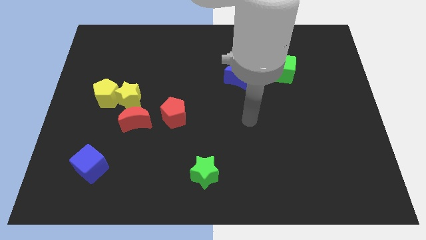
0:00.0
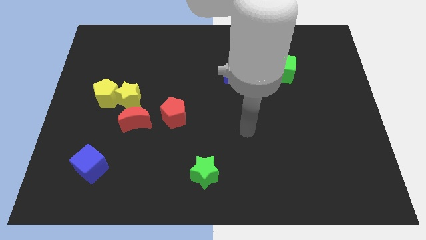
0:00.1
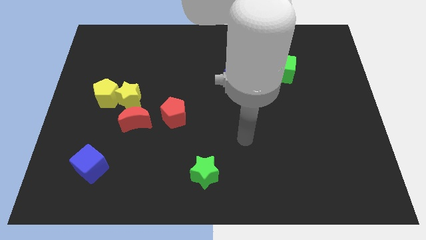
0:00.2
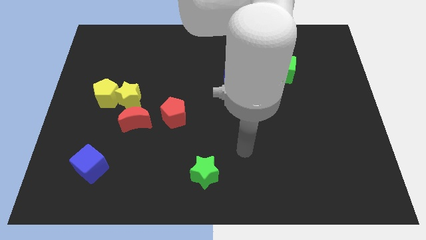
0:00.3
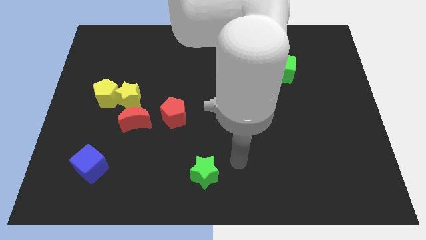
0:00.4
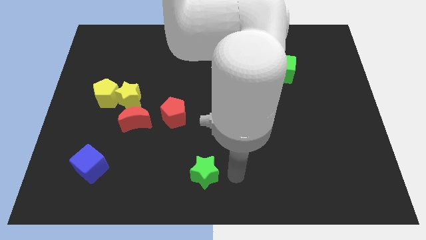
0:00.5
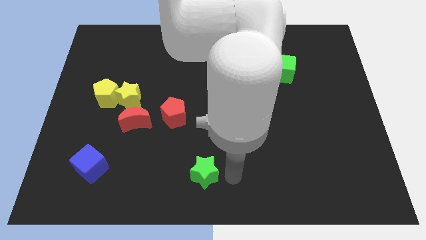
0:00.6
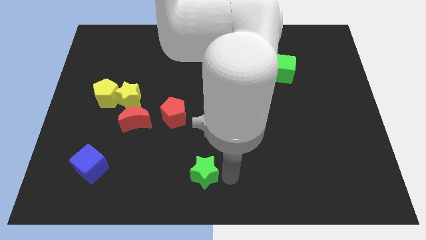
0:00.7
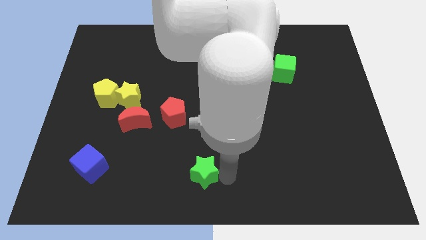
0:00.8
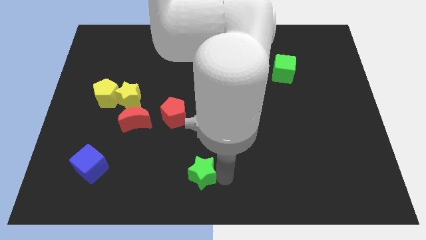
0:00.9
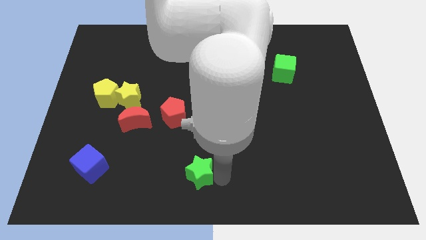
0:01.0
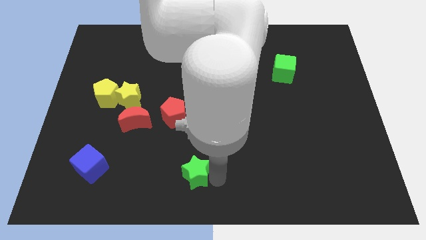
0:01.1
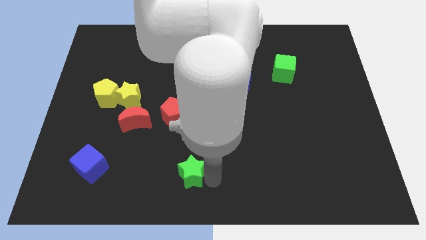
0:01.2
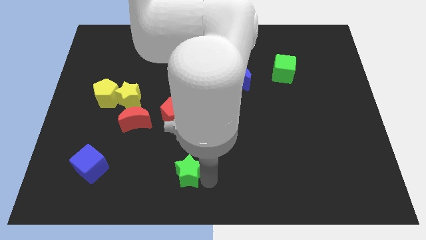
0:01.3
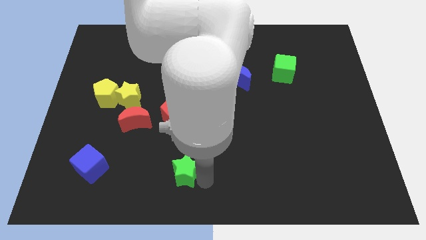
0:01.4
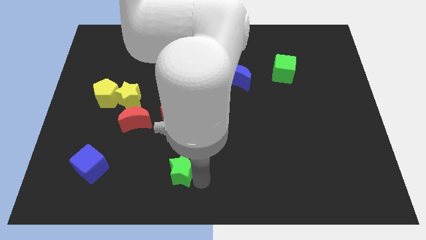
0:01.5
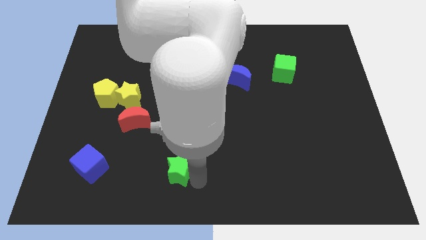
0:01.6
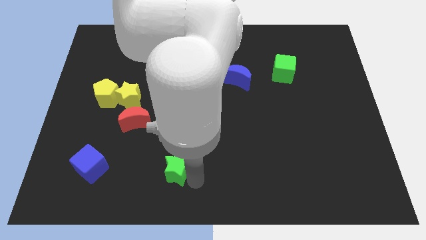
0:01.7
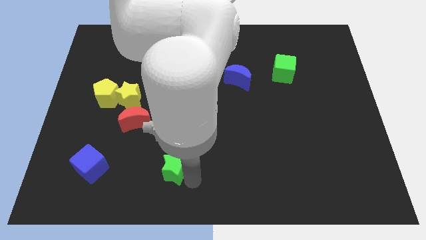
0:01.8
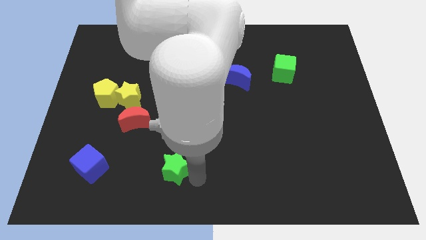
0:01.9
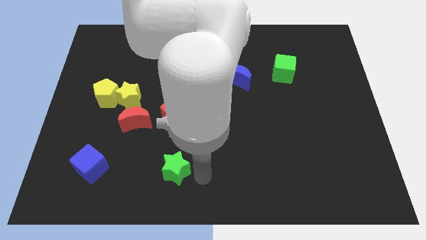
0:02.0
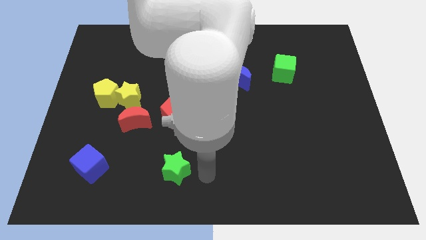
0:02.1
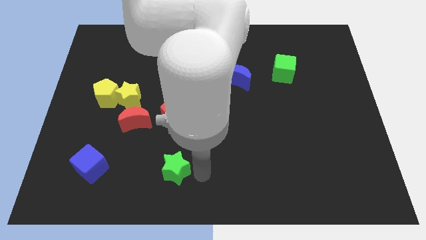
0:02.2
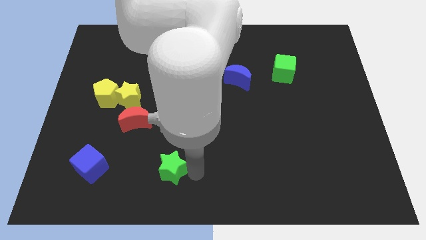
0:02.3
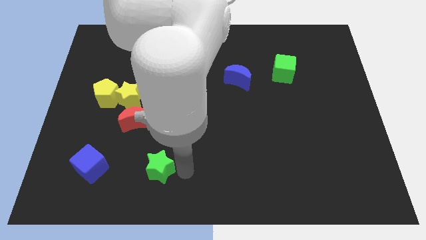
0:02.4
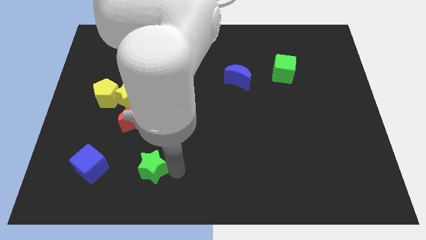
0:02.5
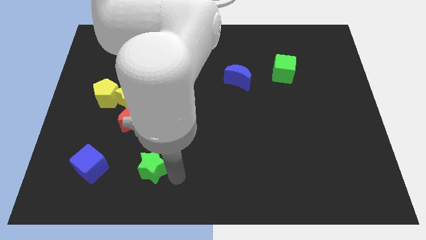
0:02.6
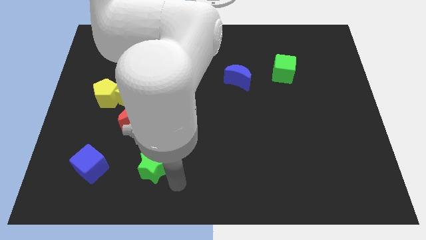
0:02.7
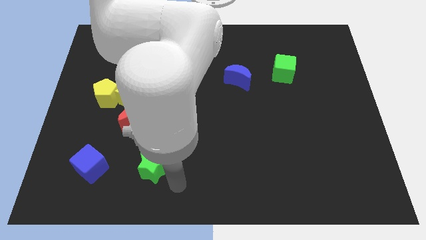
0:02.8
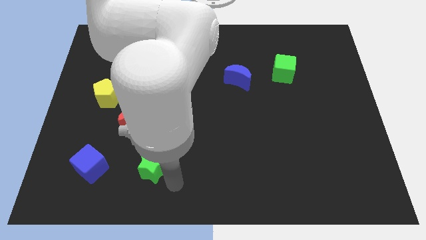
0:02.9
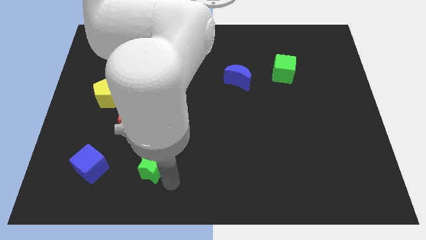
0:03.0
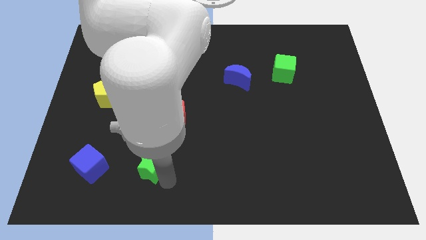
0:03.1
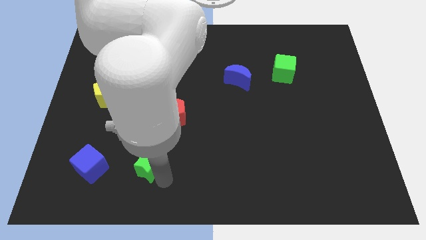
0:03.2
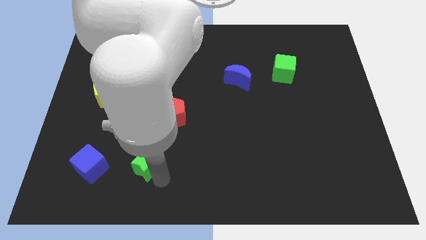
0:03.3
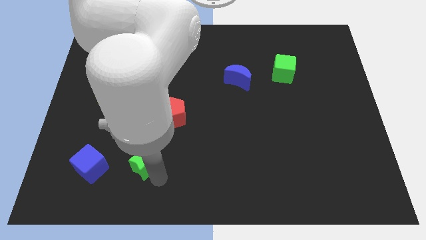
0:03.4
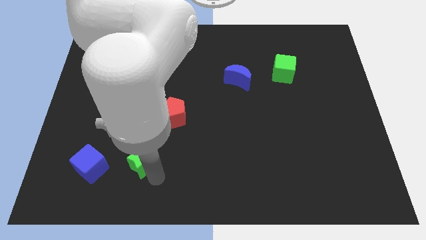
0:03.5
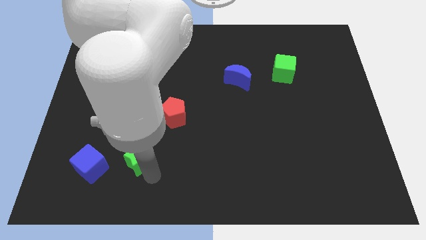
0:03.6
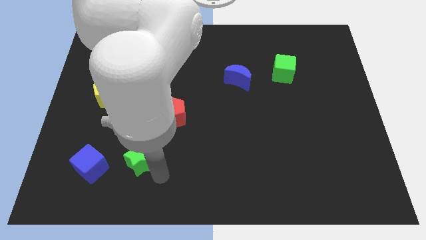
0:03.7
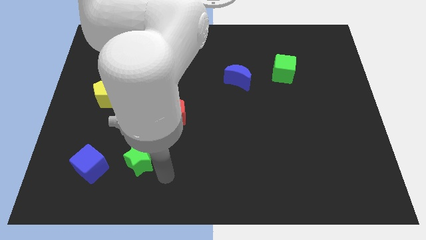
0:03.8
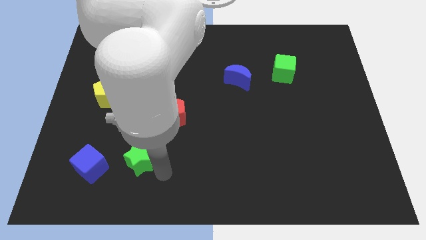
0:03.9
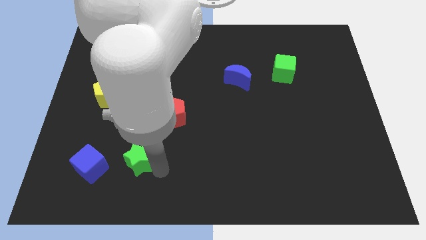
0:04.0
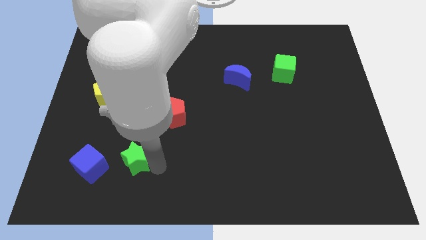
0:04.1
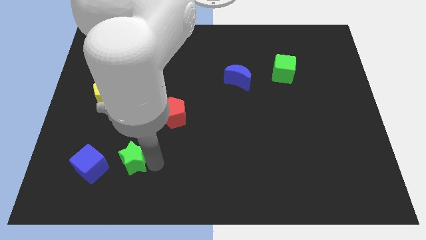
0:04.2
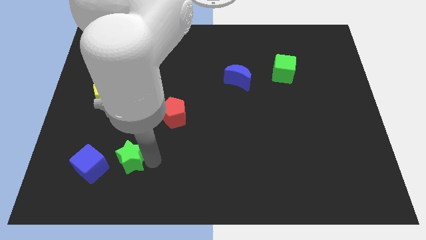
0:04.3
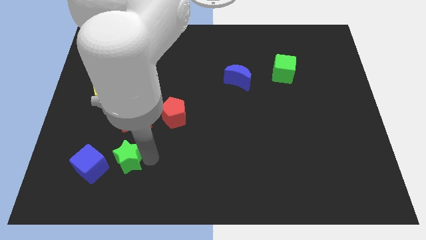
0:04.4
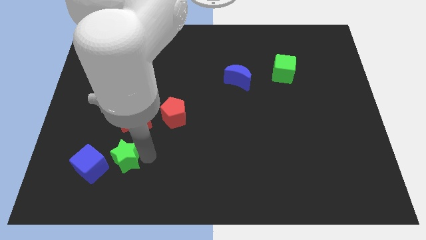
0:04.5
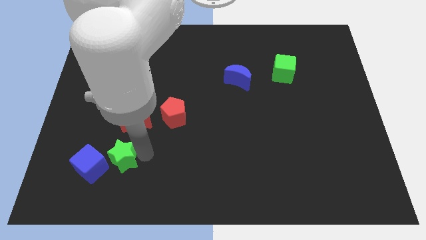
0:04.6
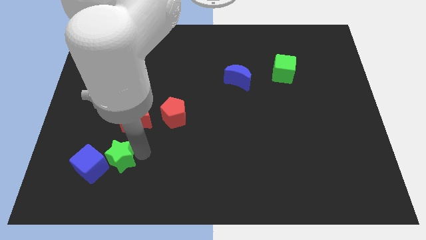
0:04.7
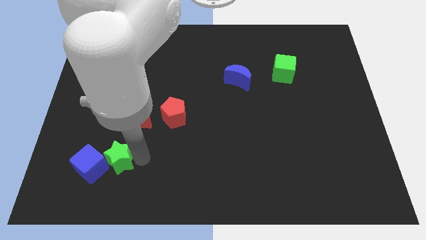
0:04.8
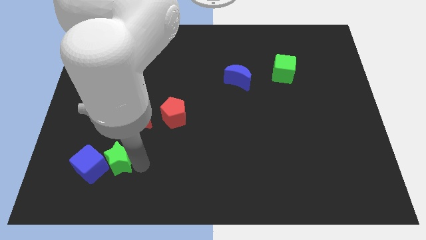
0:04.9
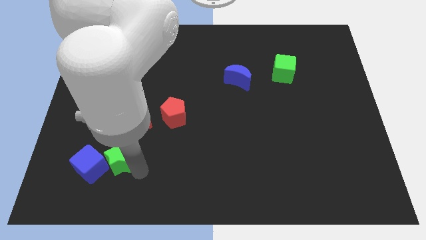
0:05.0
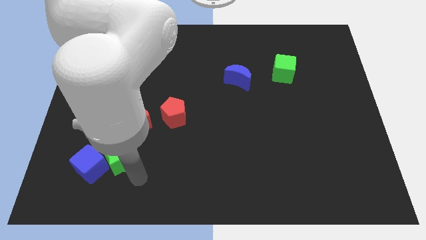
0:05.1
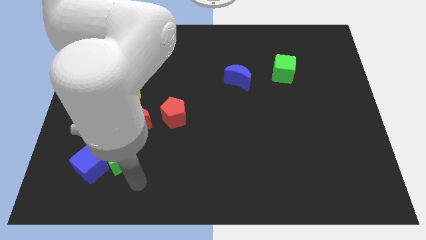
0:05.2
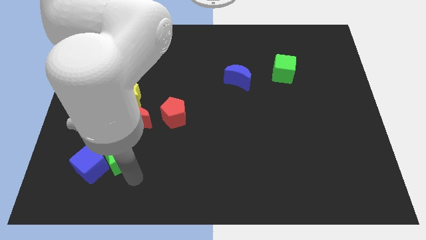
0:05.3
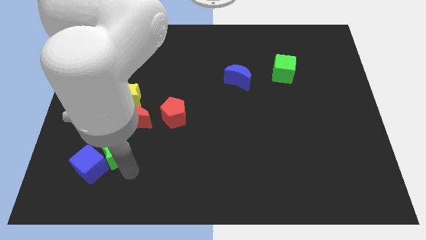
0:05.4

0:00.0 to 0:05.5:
slide the green star to the bottom left of the red moon

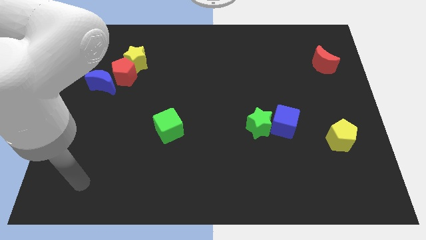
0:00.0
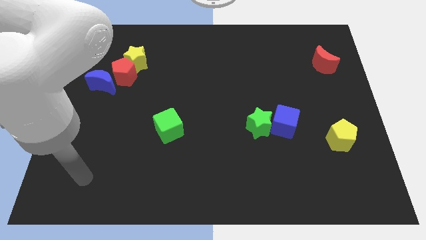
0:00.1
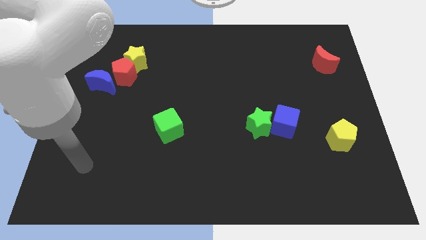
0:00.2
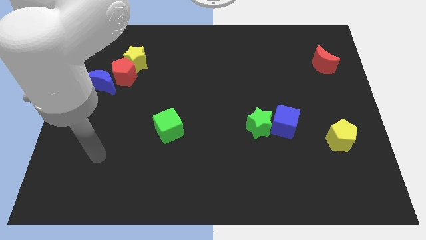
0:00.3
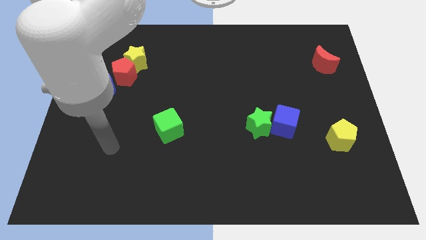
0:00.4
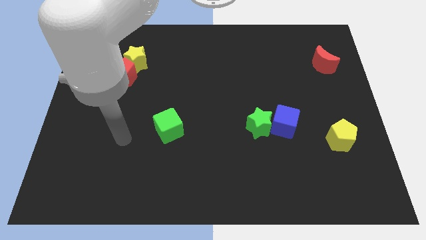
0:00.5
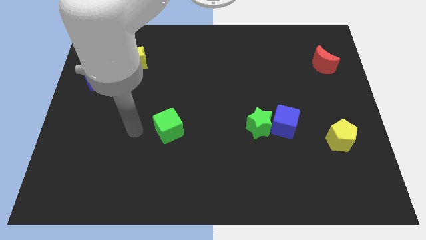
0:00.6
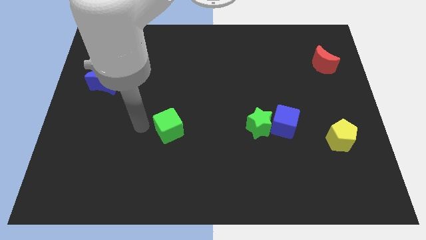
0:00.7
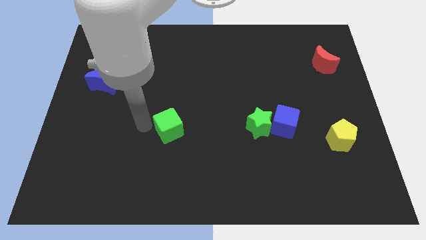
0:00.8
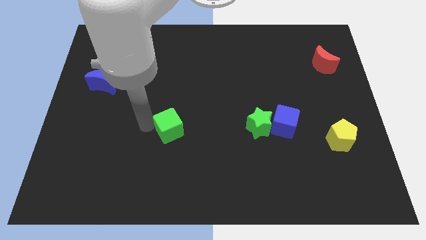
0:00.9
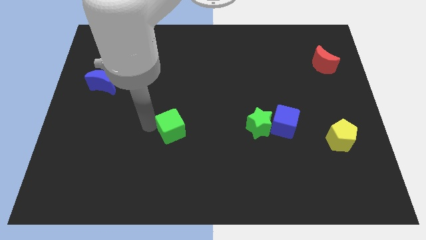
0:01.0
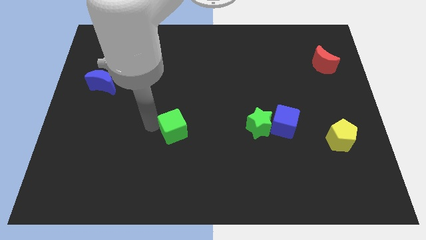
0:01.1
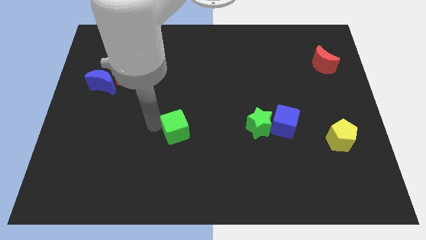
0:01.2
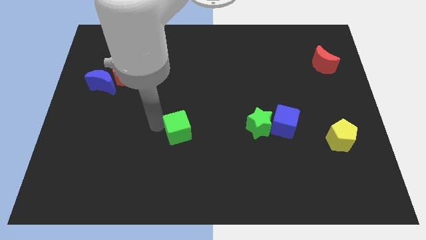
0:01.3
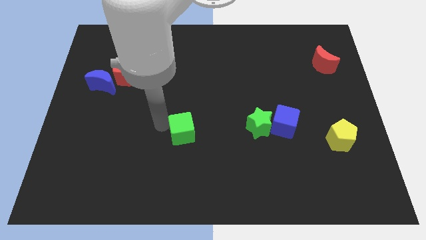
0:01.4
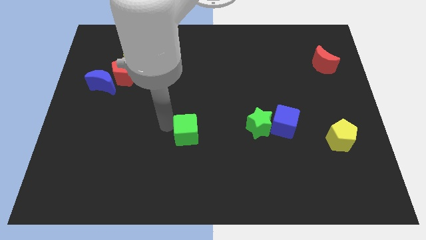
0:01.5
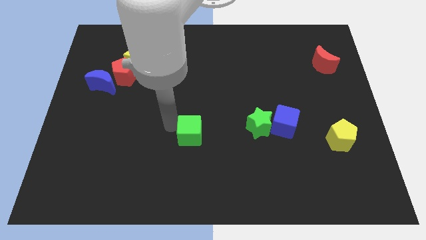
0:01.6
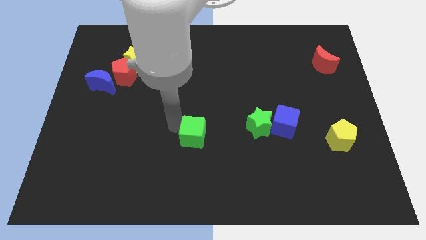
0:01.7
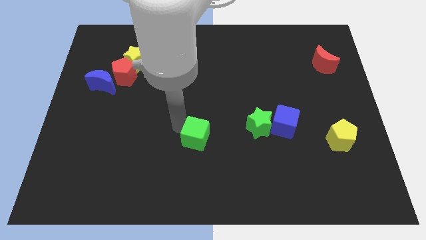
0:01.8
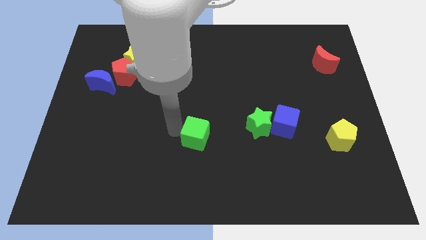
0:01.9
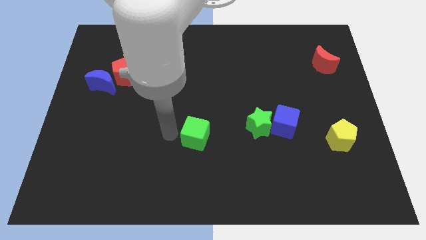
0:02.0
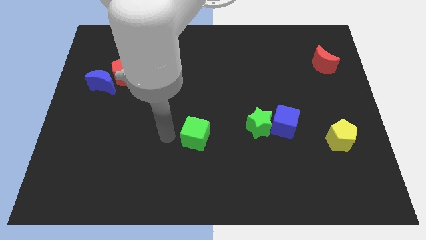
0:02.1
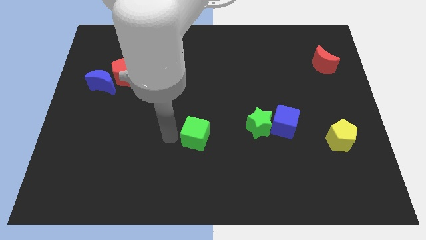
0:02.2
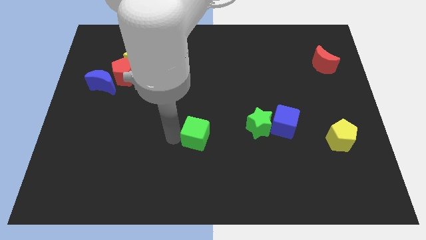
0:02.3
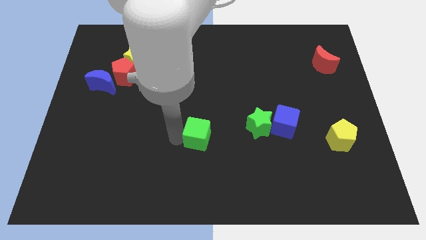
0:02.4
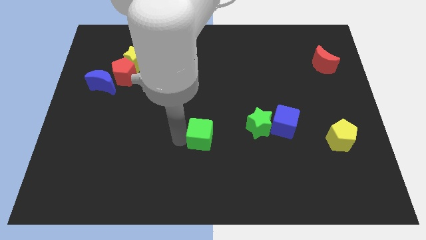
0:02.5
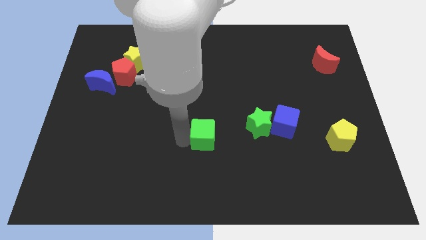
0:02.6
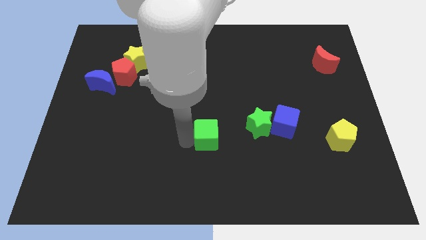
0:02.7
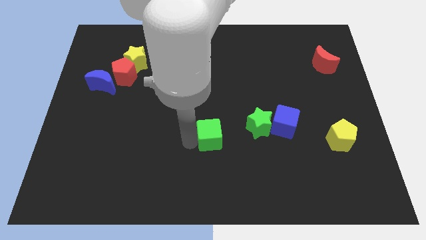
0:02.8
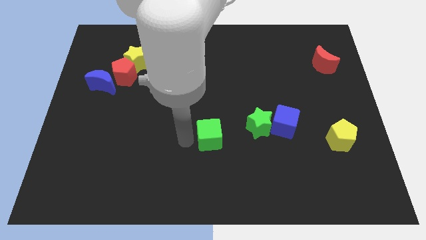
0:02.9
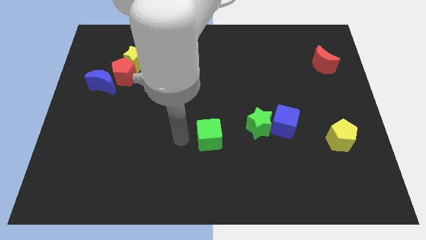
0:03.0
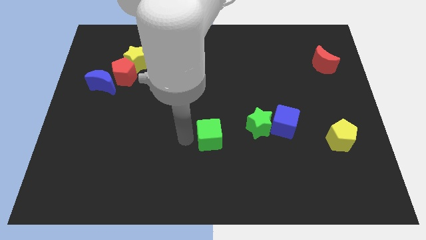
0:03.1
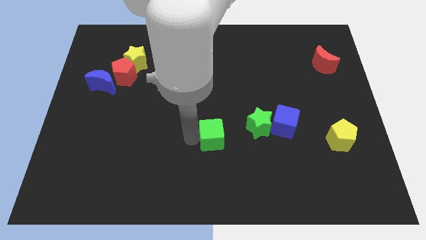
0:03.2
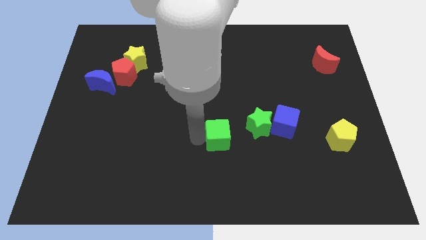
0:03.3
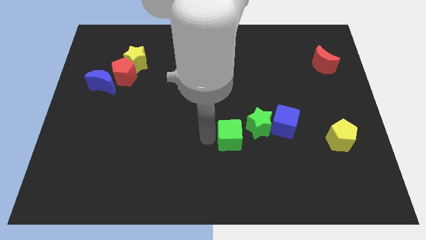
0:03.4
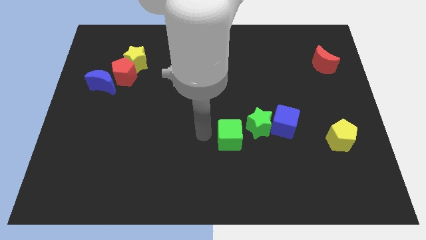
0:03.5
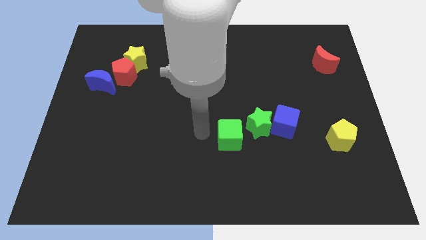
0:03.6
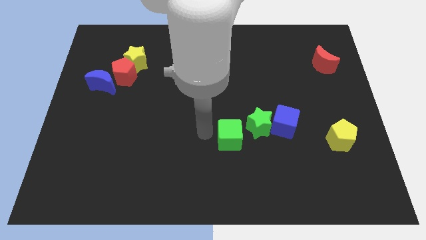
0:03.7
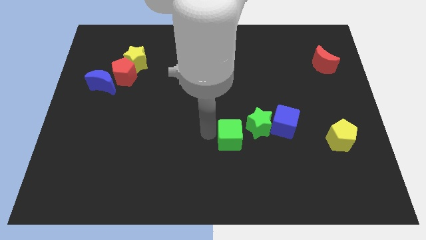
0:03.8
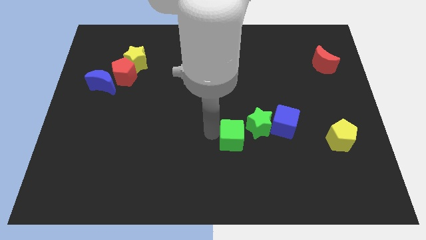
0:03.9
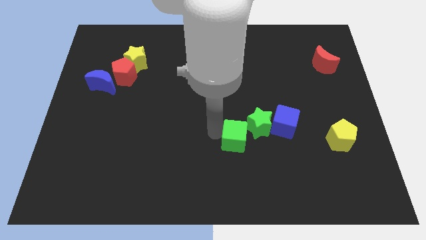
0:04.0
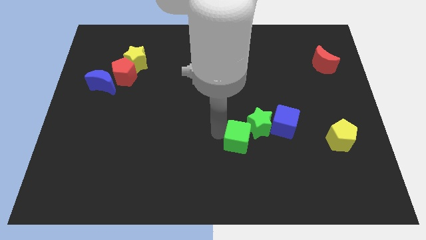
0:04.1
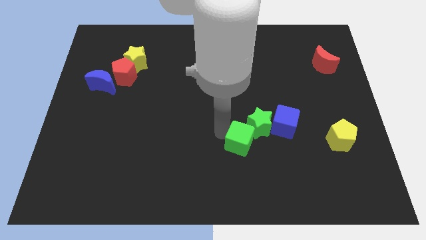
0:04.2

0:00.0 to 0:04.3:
slide the green cube to the bottom left of the blue cube
